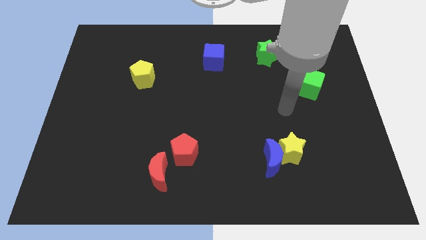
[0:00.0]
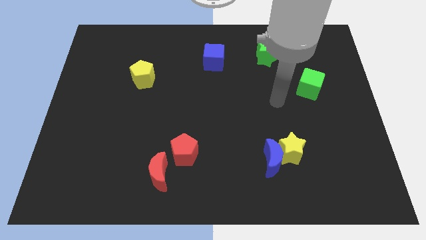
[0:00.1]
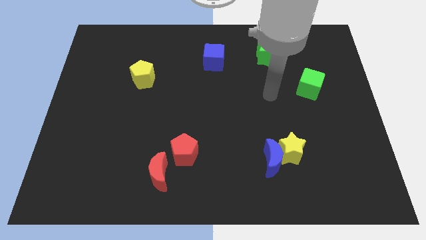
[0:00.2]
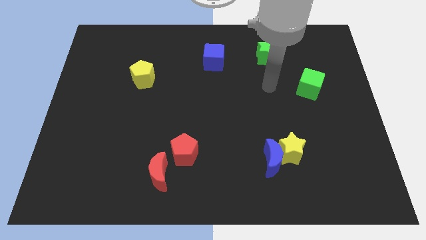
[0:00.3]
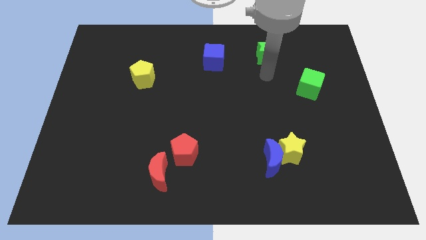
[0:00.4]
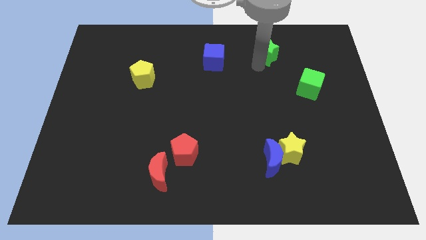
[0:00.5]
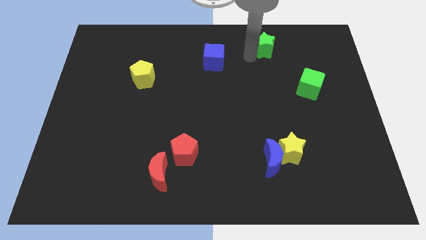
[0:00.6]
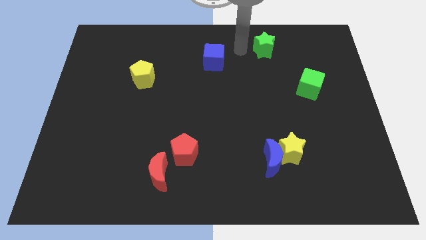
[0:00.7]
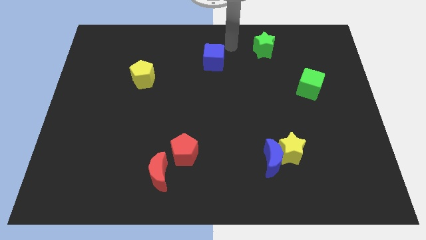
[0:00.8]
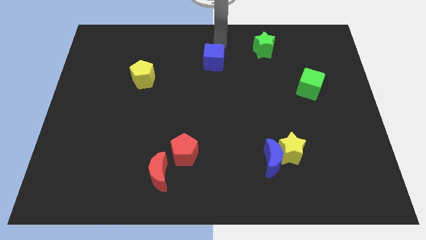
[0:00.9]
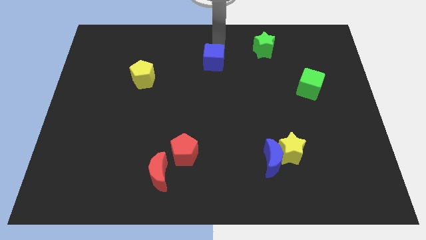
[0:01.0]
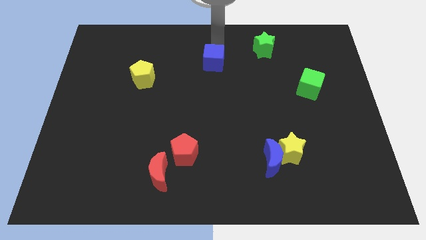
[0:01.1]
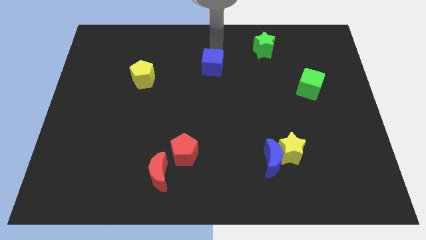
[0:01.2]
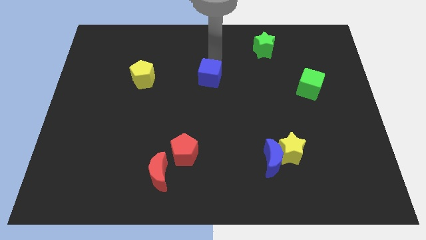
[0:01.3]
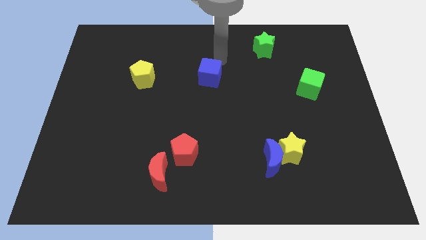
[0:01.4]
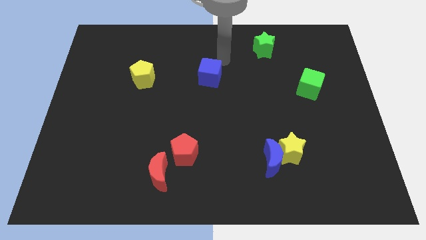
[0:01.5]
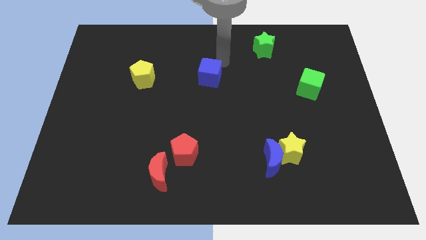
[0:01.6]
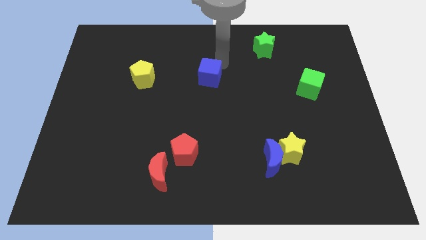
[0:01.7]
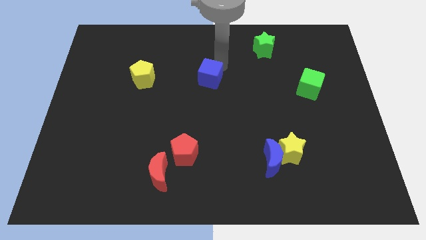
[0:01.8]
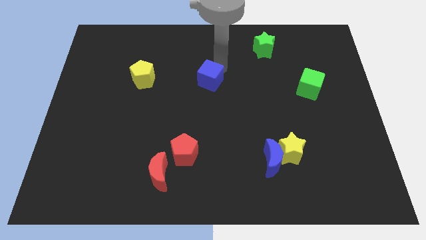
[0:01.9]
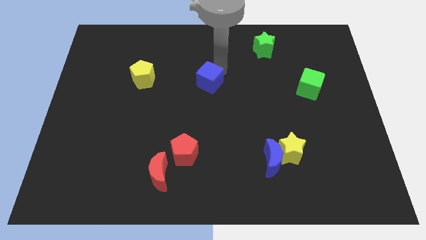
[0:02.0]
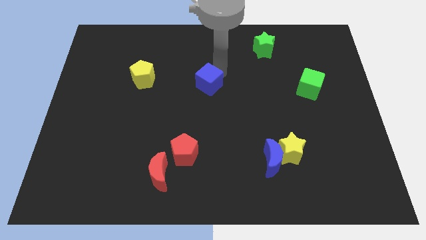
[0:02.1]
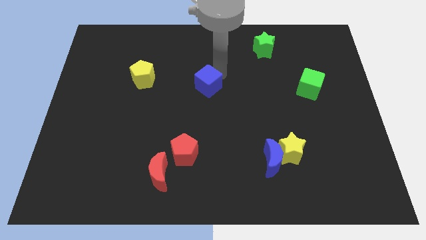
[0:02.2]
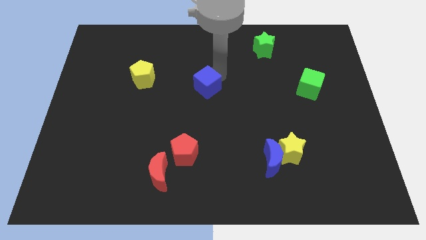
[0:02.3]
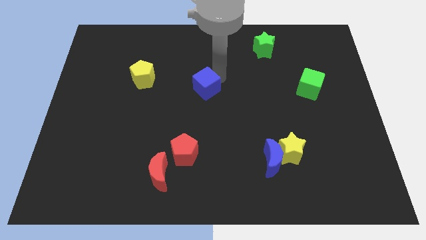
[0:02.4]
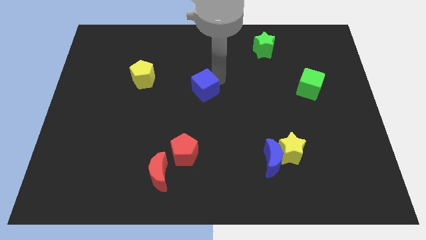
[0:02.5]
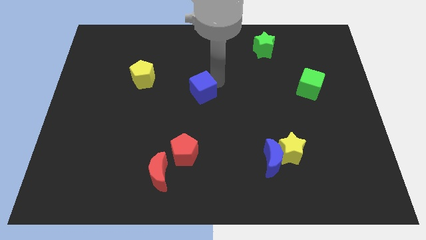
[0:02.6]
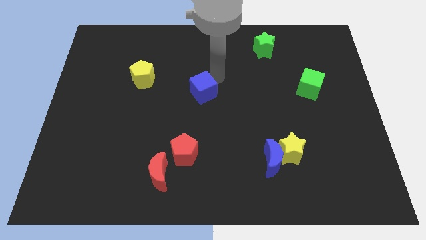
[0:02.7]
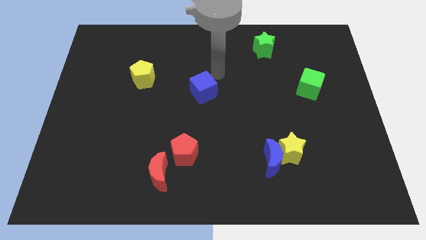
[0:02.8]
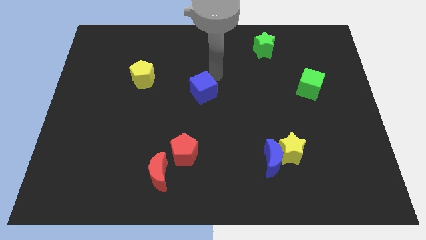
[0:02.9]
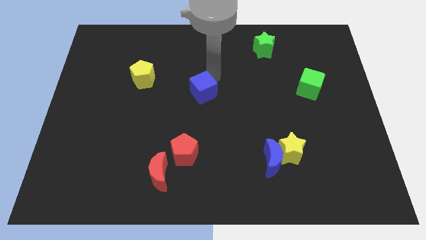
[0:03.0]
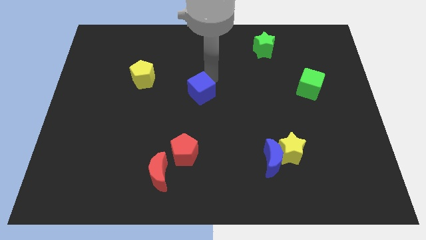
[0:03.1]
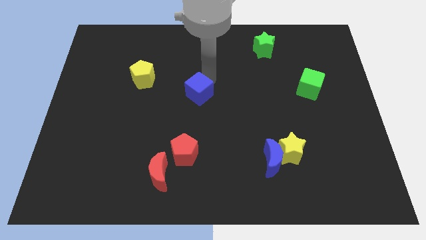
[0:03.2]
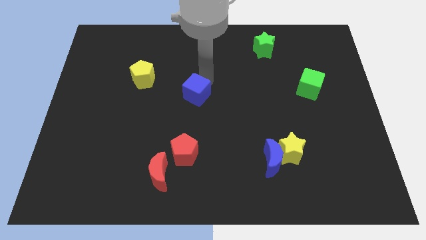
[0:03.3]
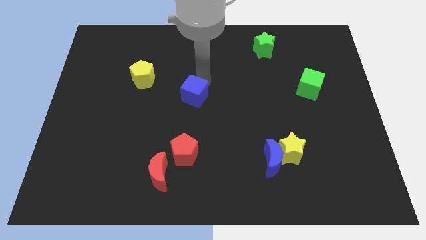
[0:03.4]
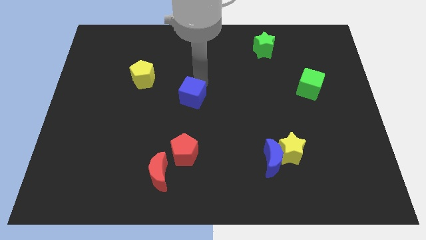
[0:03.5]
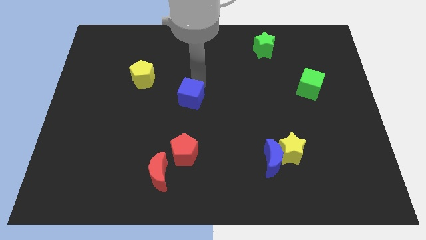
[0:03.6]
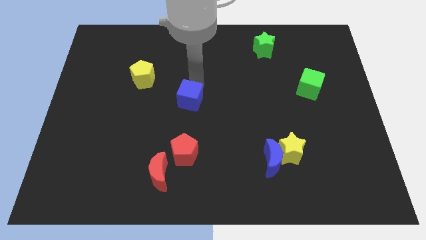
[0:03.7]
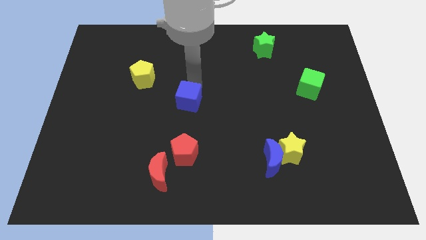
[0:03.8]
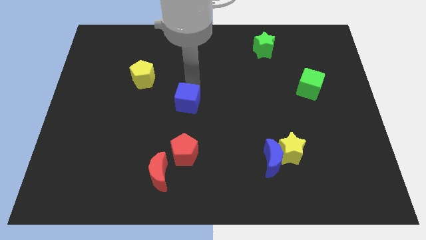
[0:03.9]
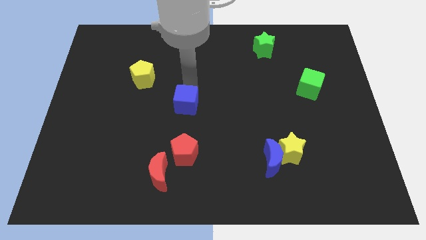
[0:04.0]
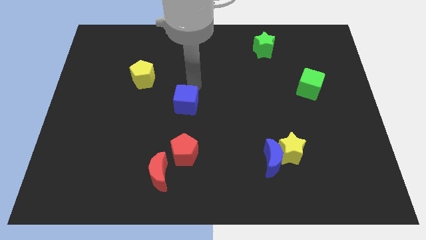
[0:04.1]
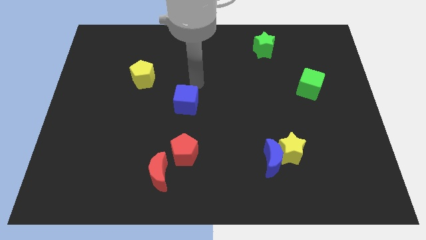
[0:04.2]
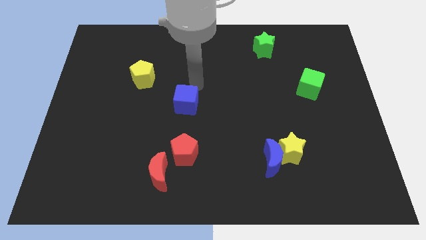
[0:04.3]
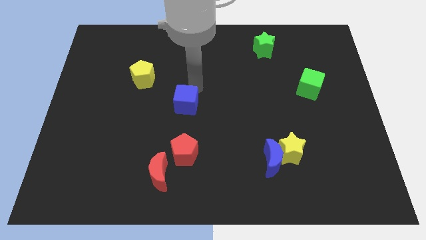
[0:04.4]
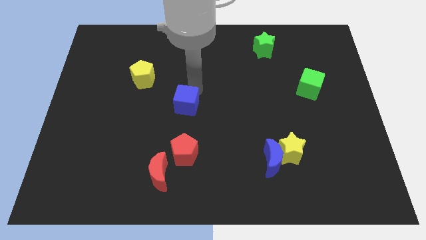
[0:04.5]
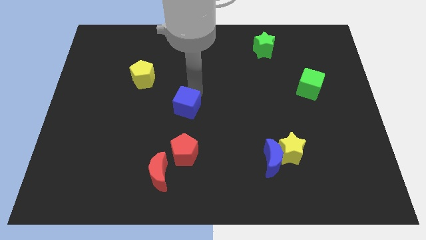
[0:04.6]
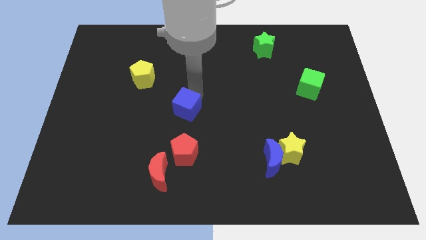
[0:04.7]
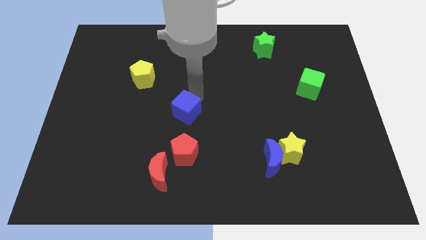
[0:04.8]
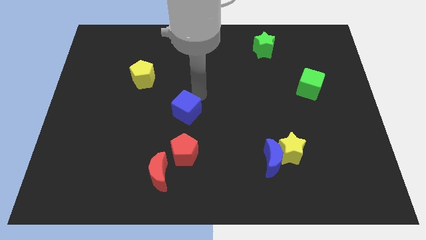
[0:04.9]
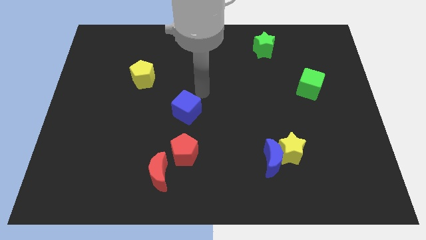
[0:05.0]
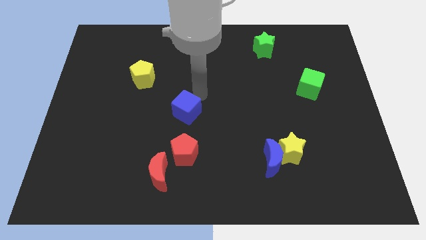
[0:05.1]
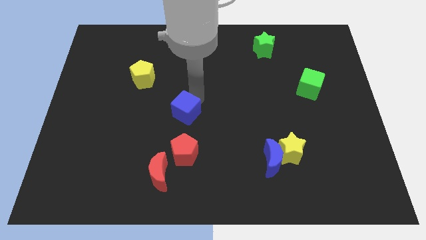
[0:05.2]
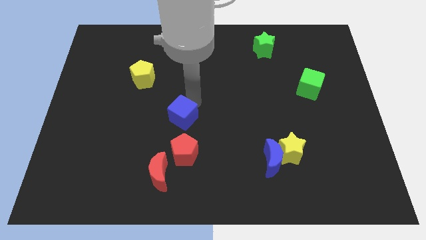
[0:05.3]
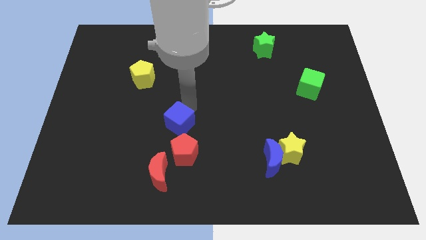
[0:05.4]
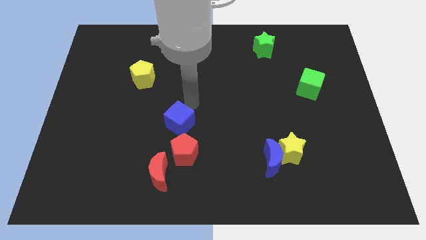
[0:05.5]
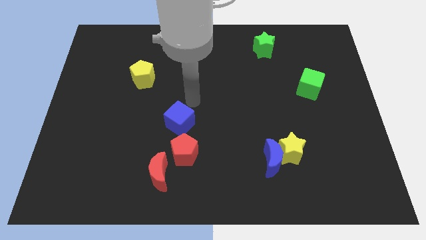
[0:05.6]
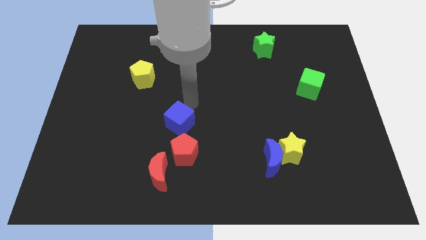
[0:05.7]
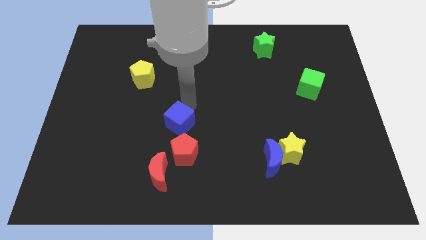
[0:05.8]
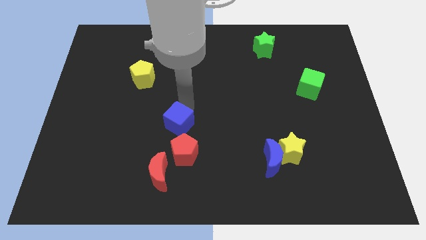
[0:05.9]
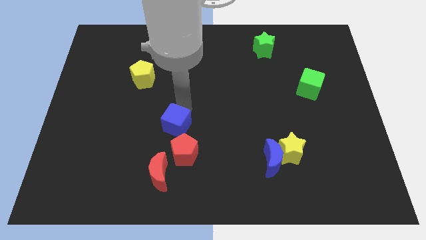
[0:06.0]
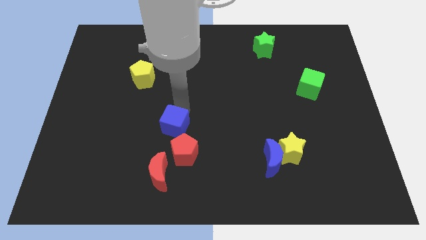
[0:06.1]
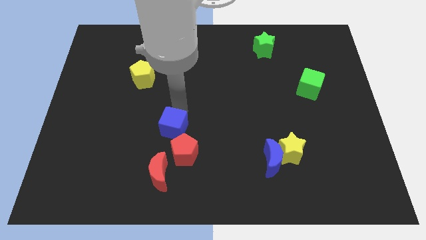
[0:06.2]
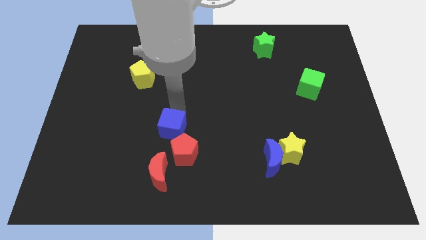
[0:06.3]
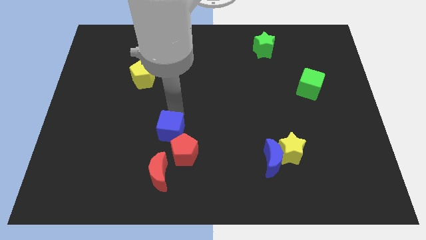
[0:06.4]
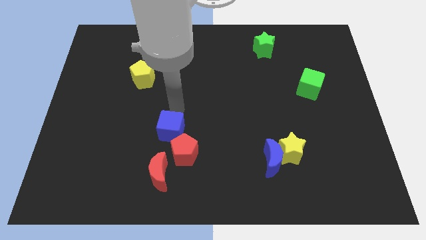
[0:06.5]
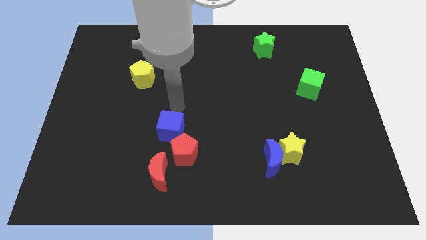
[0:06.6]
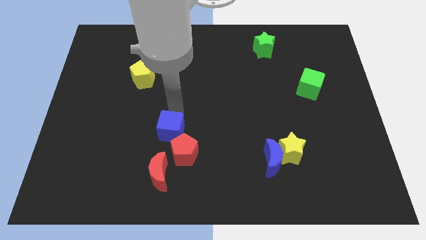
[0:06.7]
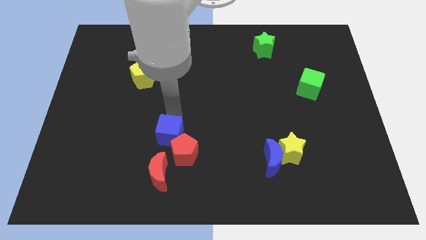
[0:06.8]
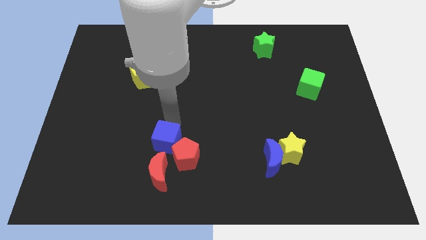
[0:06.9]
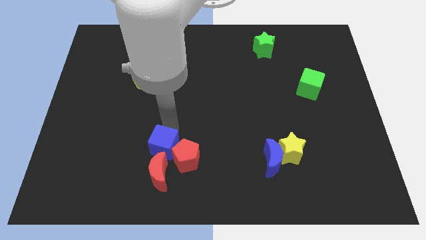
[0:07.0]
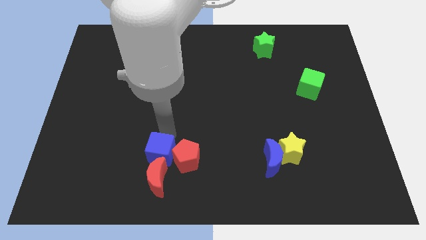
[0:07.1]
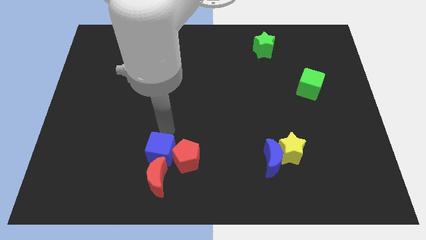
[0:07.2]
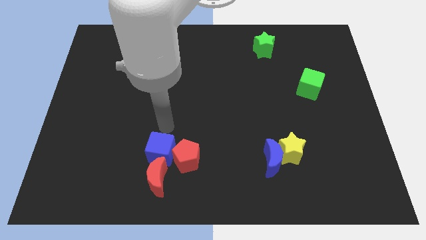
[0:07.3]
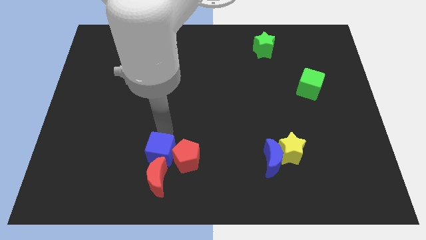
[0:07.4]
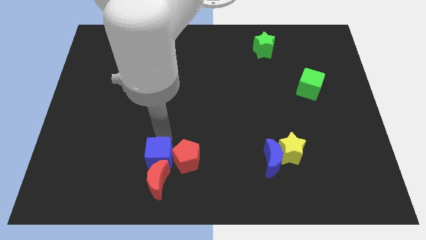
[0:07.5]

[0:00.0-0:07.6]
put the blue cube next to the red moon

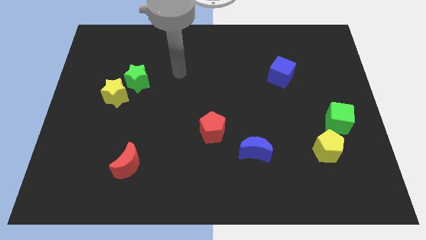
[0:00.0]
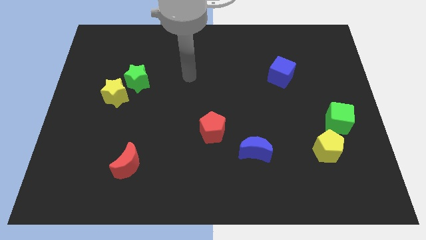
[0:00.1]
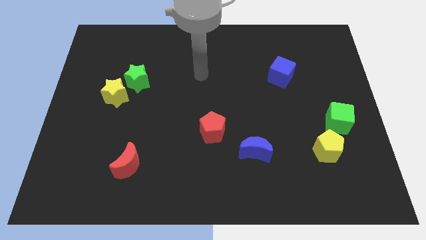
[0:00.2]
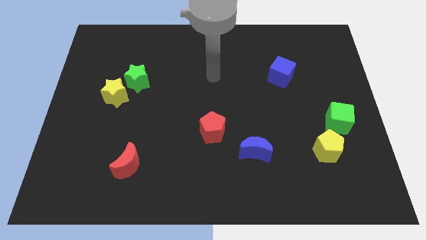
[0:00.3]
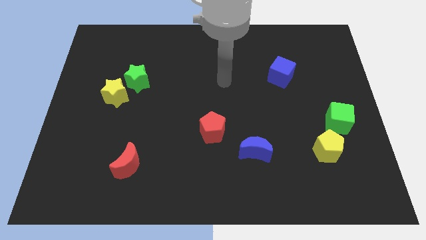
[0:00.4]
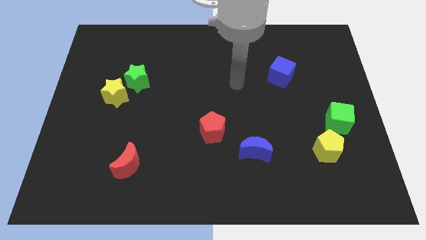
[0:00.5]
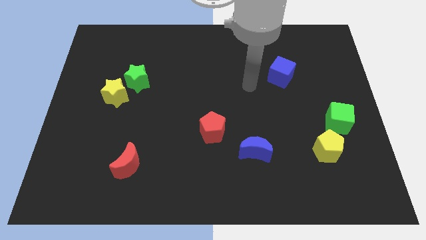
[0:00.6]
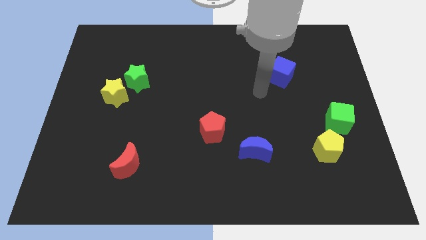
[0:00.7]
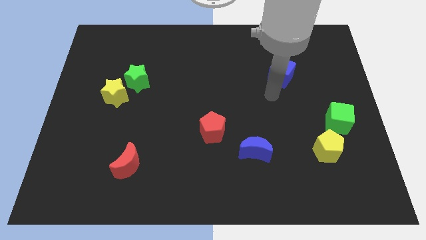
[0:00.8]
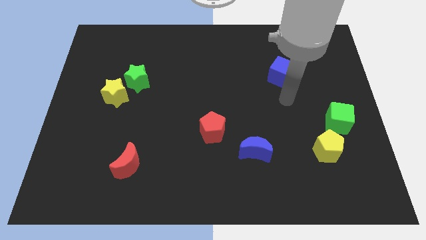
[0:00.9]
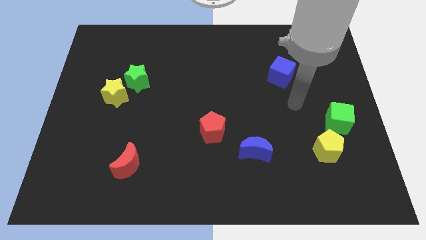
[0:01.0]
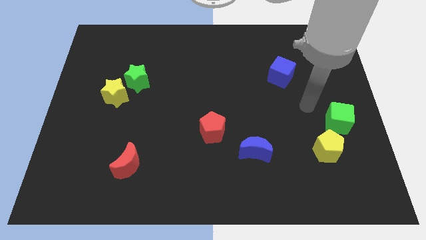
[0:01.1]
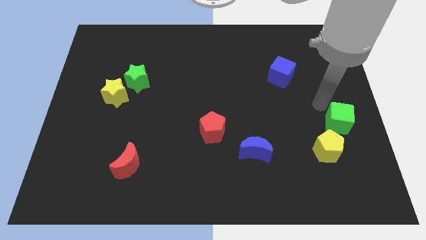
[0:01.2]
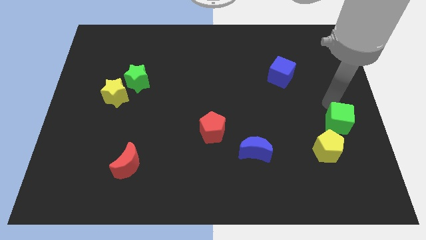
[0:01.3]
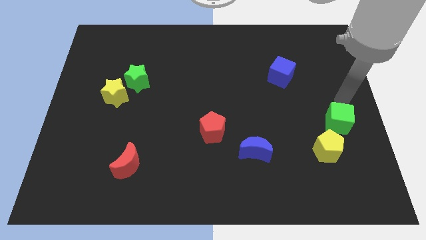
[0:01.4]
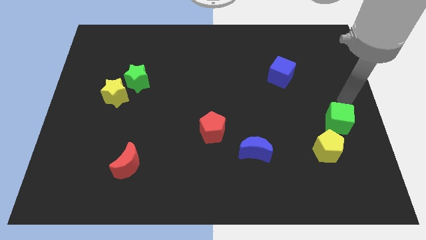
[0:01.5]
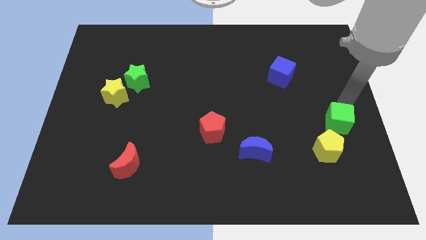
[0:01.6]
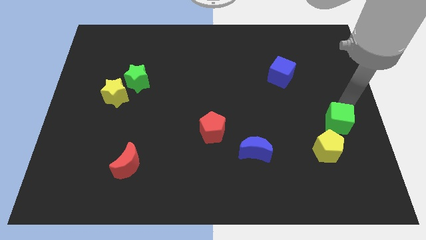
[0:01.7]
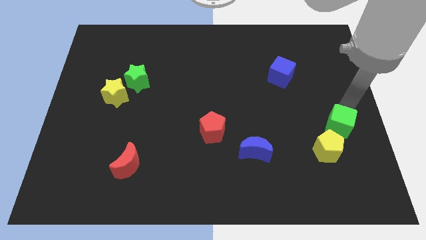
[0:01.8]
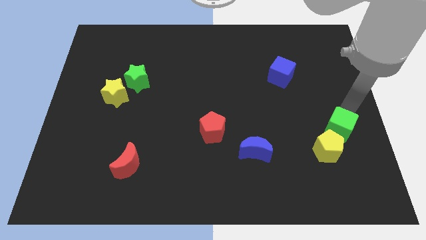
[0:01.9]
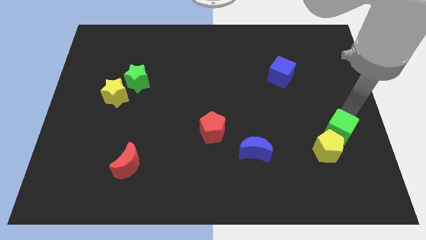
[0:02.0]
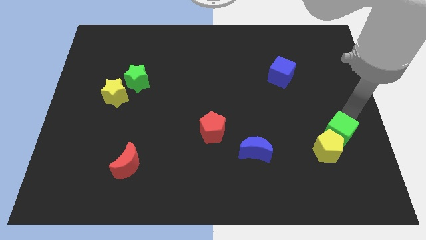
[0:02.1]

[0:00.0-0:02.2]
push the green cube towards the yellow pentagon
